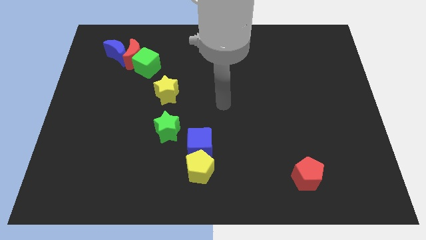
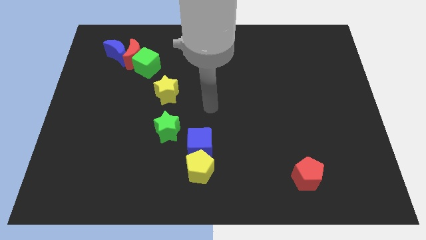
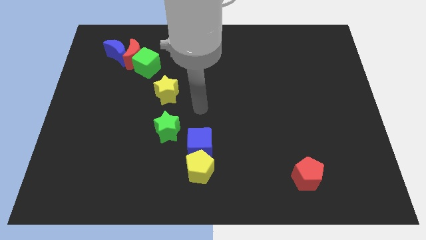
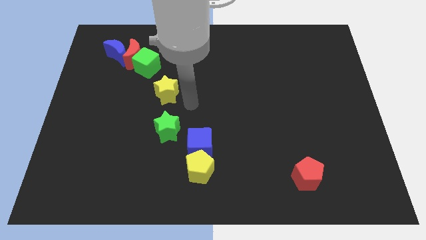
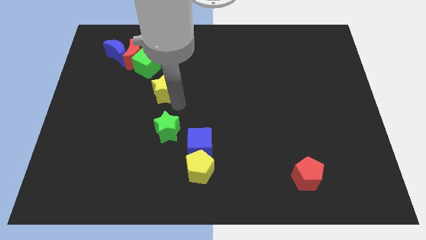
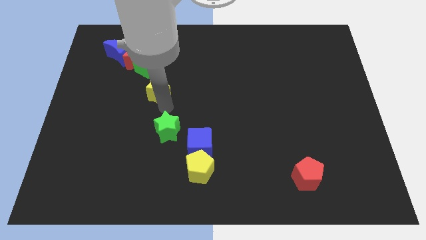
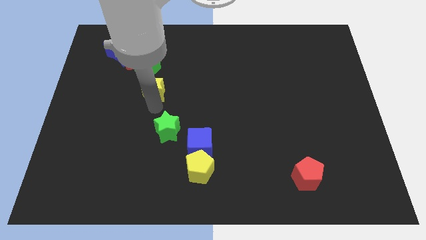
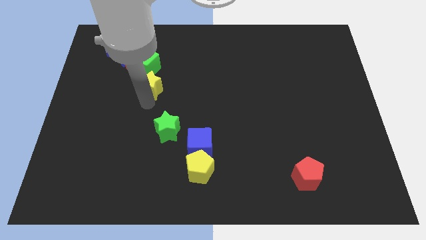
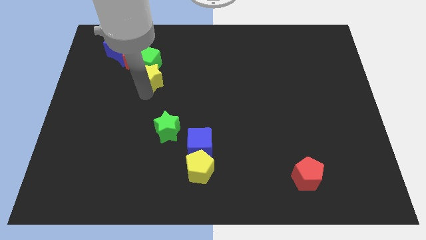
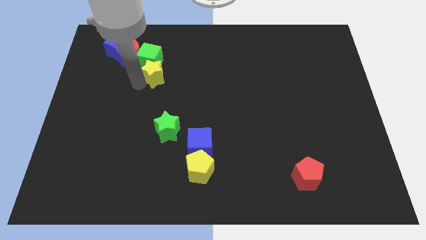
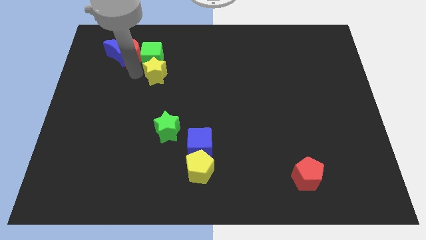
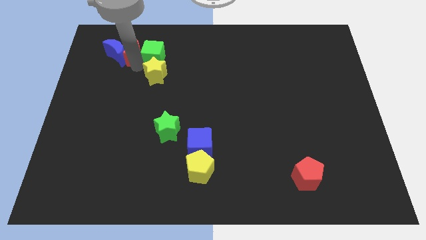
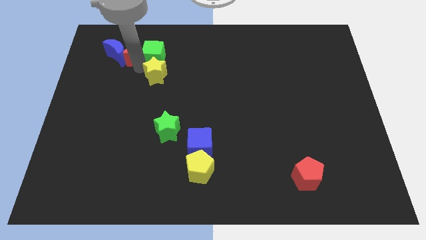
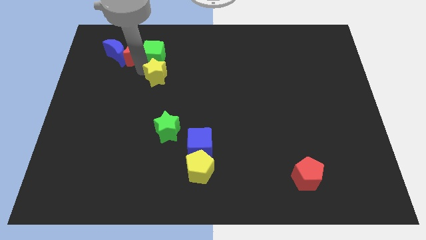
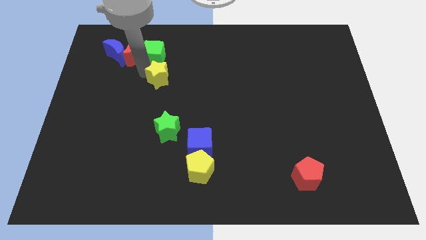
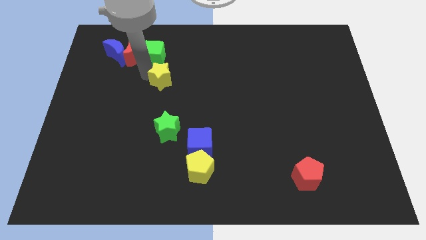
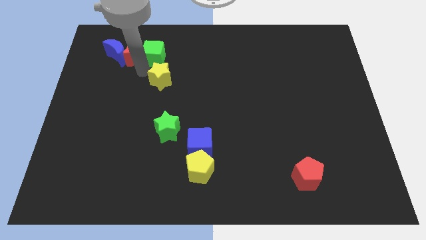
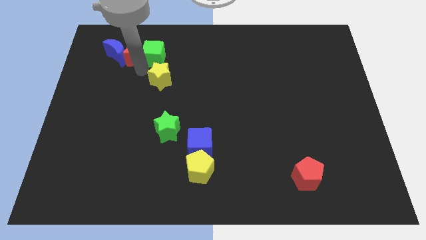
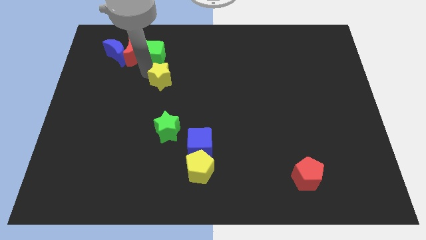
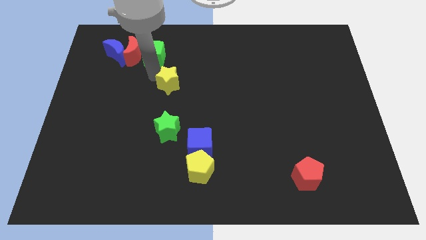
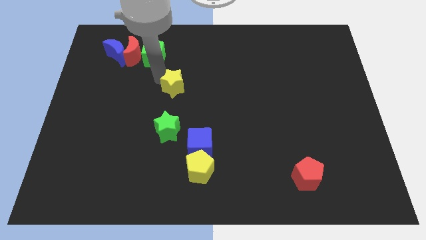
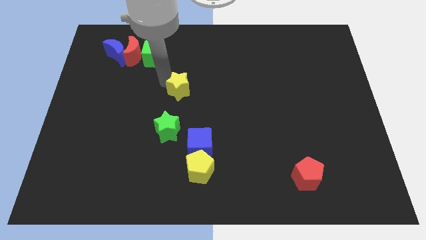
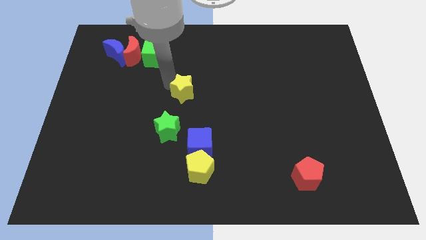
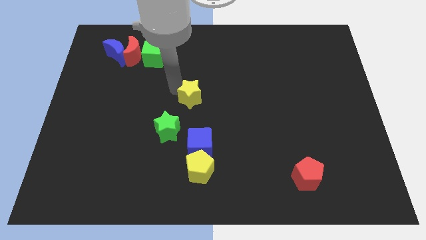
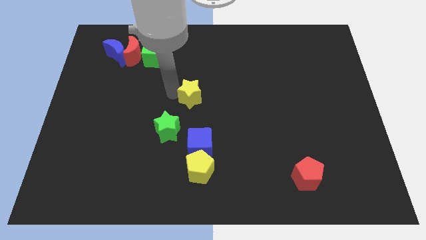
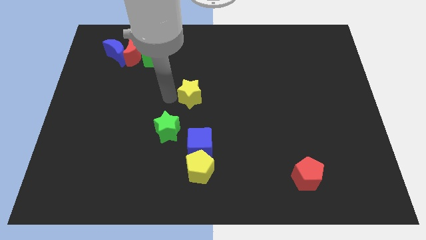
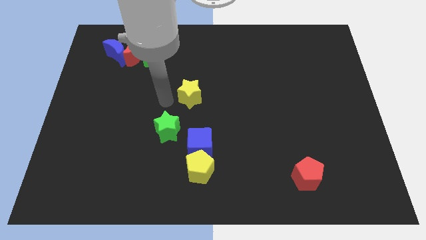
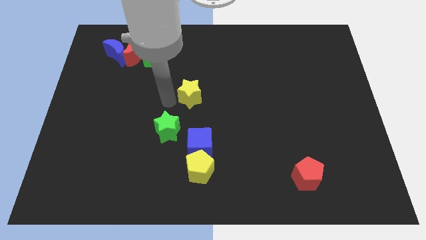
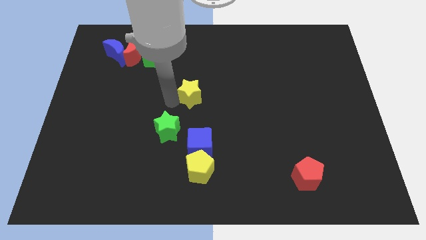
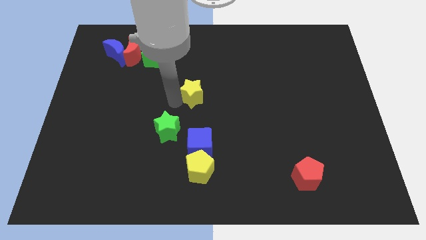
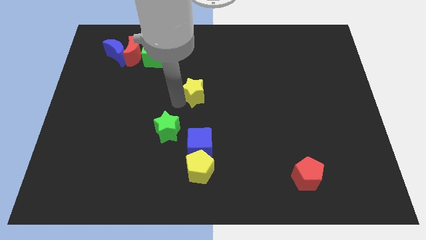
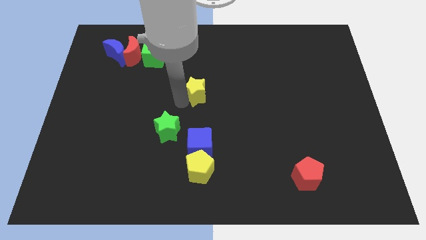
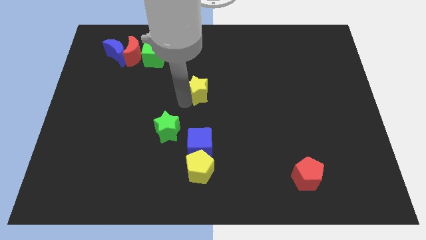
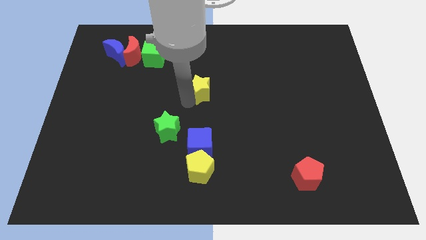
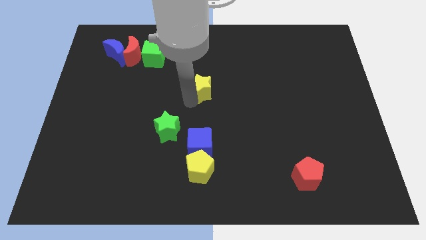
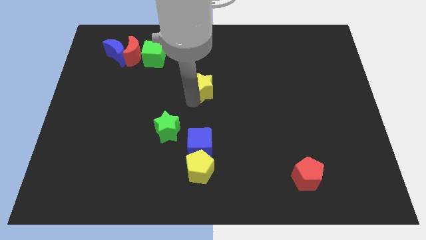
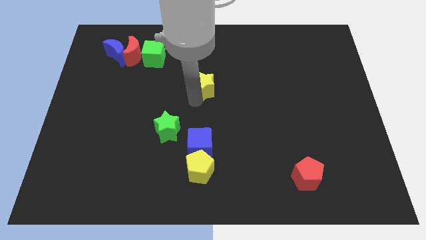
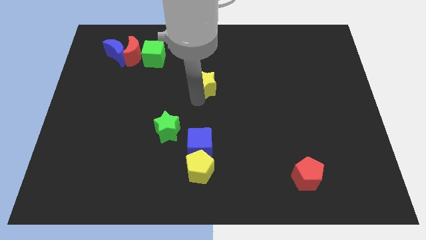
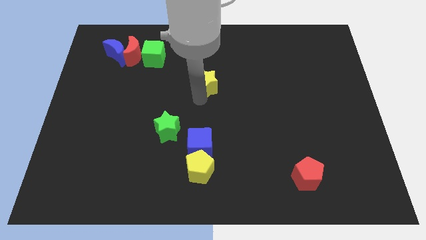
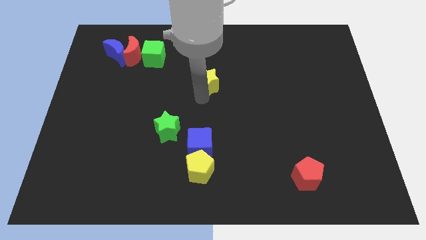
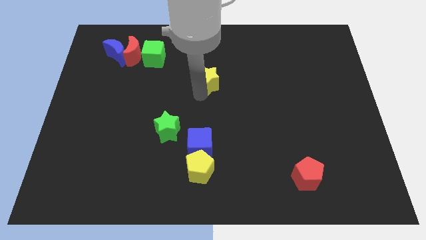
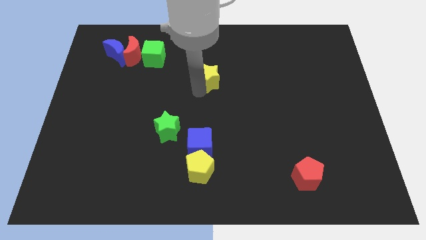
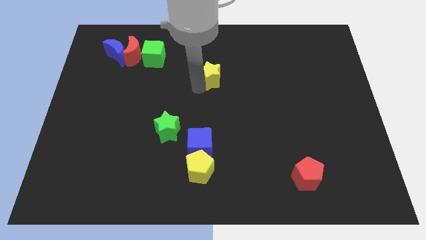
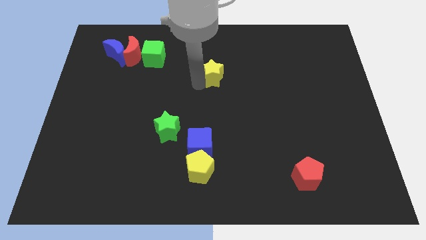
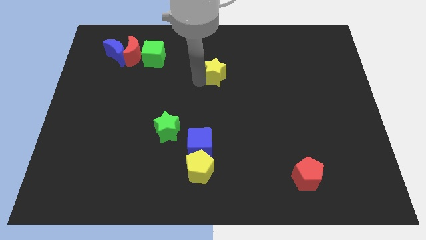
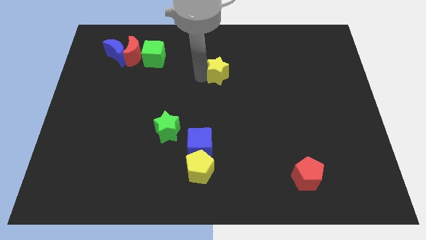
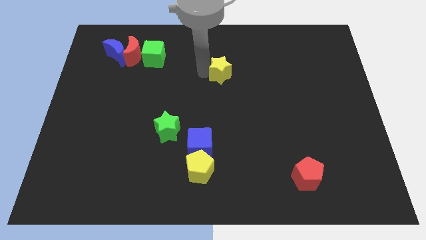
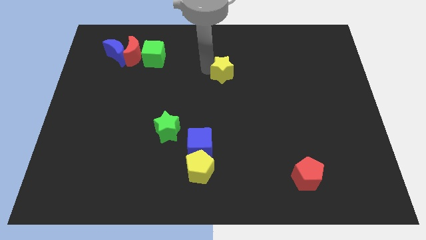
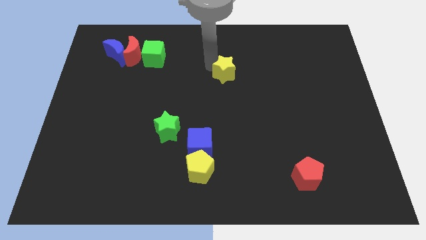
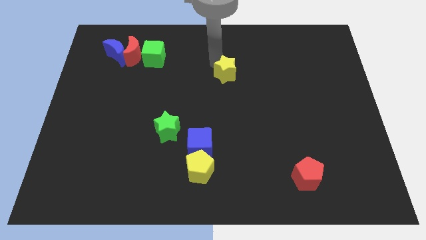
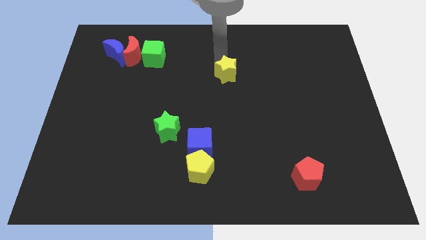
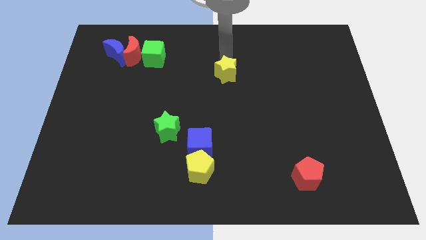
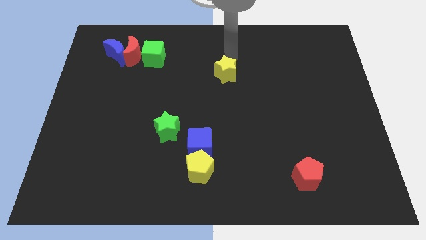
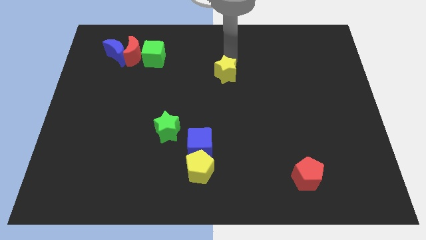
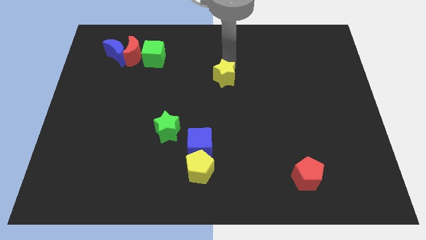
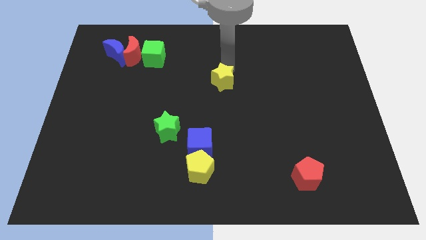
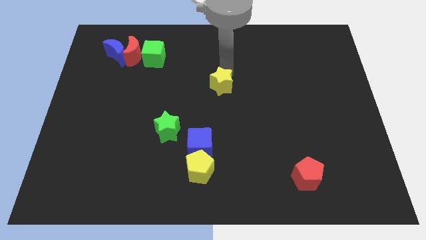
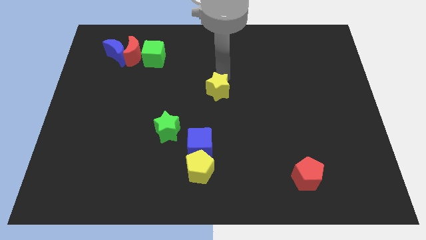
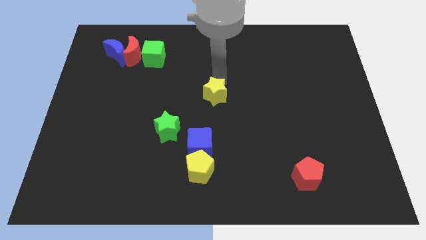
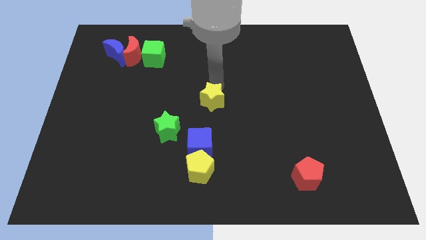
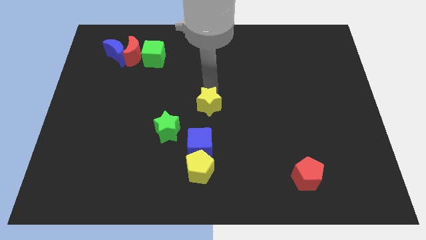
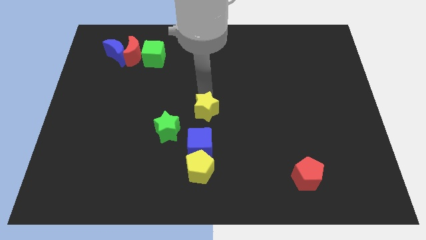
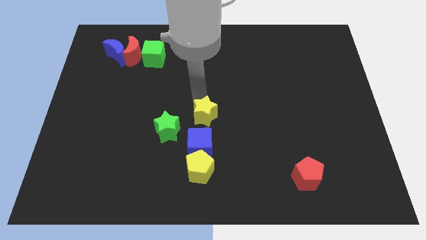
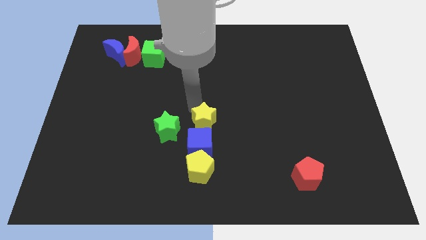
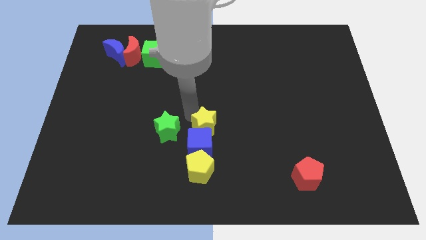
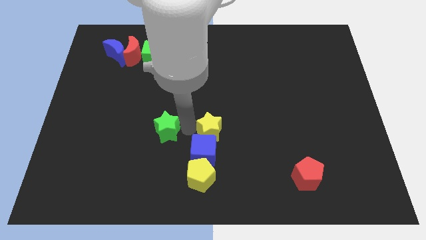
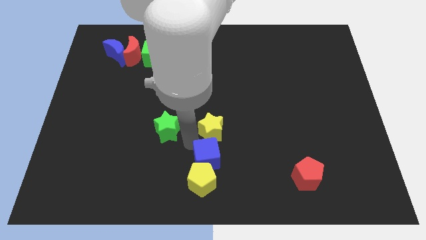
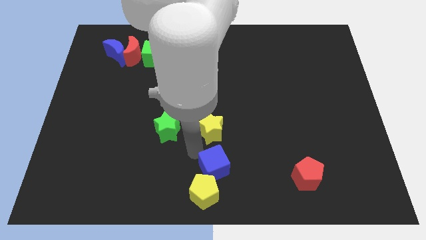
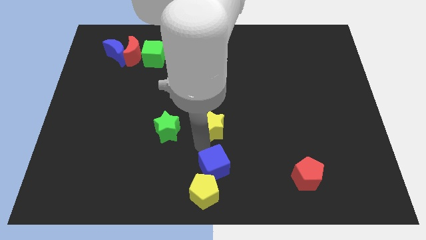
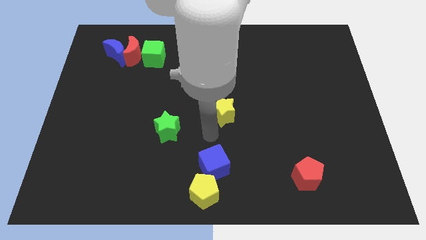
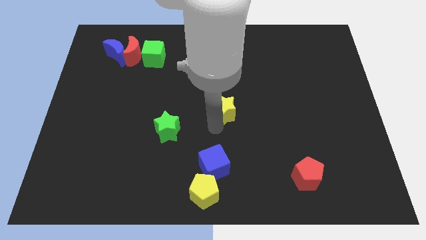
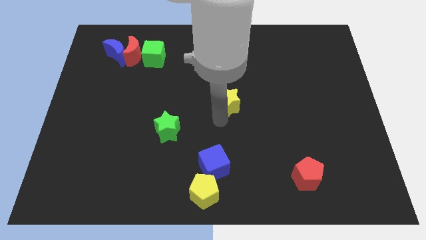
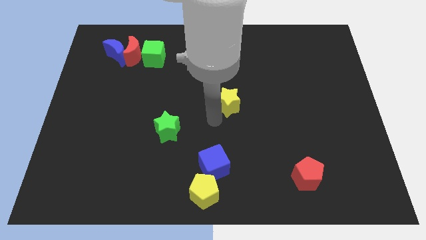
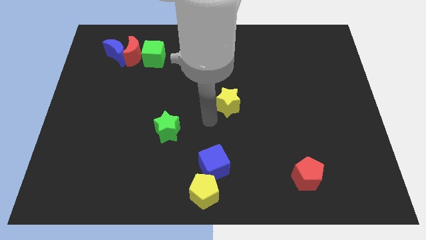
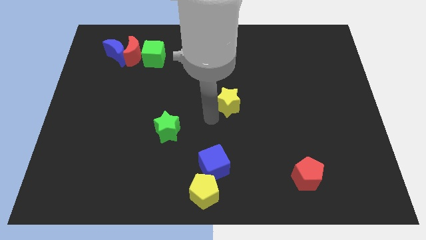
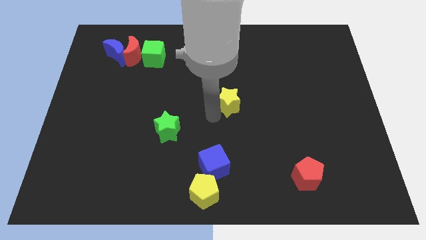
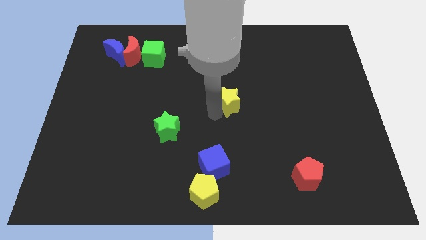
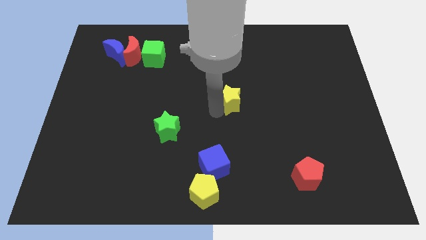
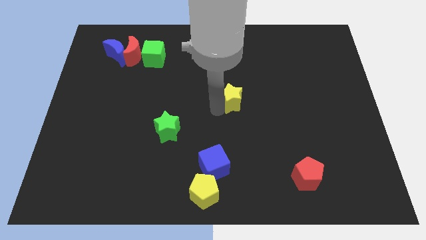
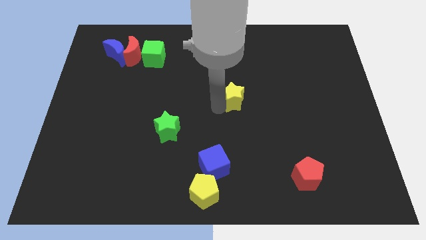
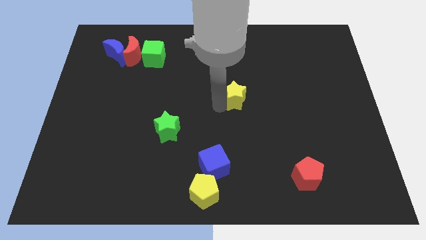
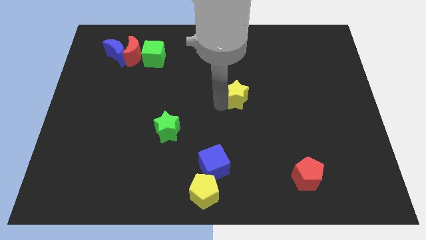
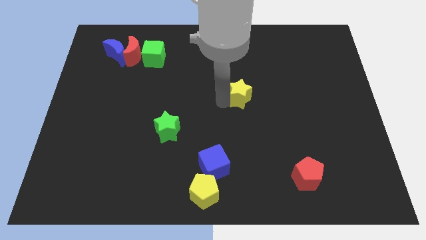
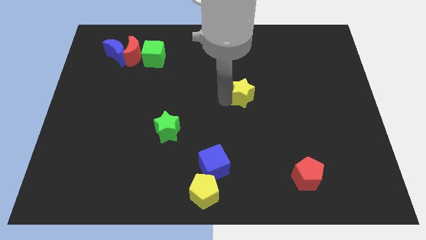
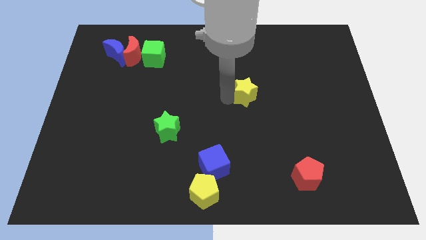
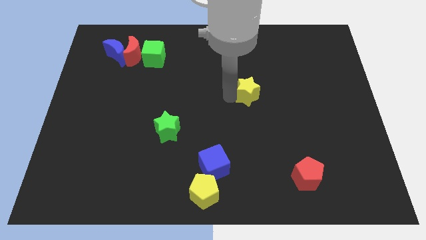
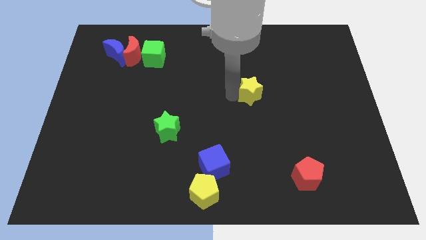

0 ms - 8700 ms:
slide the yellow star to the right
